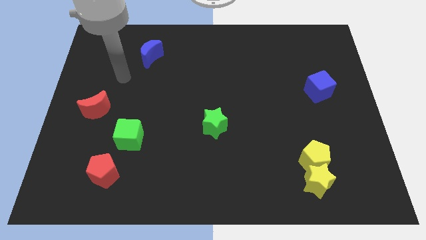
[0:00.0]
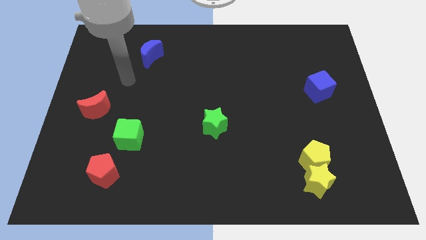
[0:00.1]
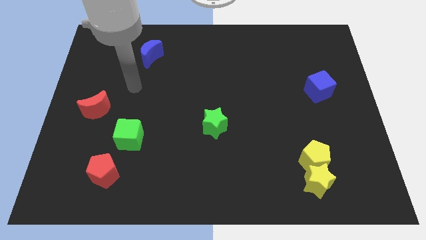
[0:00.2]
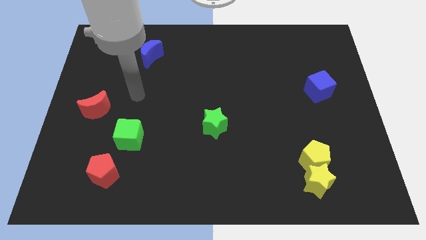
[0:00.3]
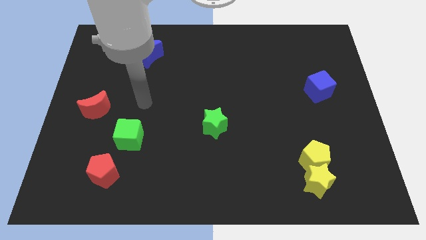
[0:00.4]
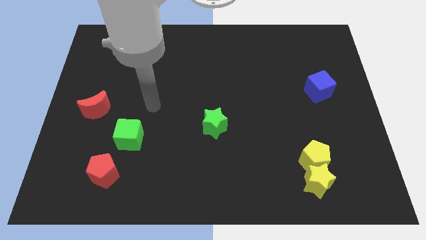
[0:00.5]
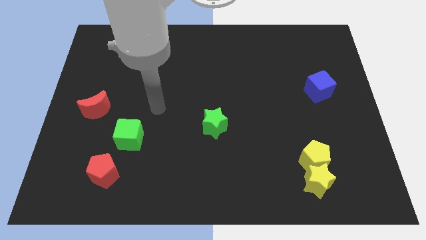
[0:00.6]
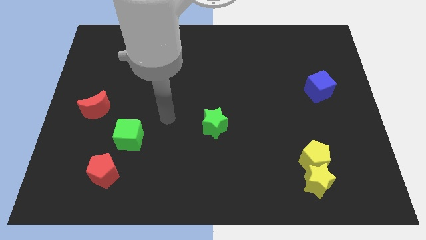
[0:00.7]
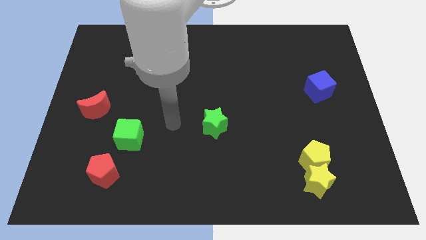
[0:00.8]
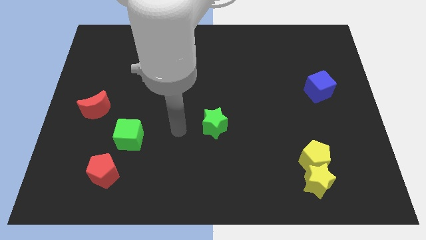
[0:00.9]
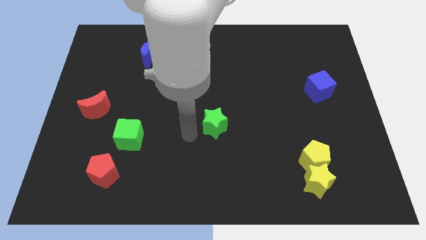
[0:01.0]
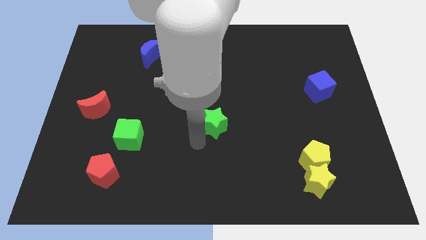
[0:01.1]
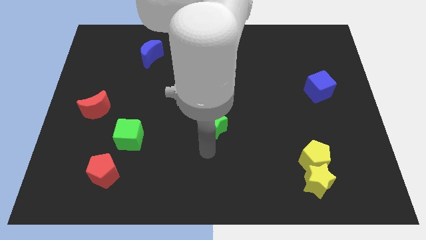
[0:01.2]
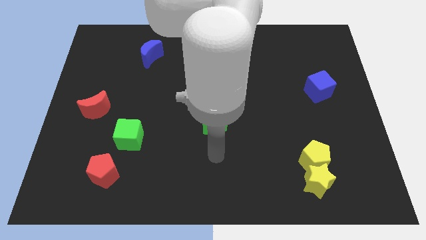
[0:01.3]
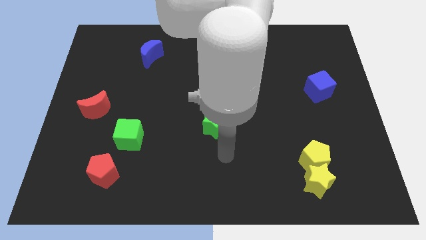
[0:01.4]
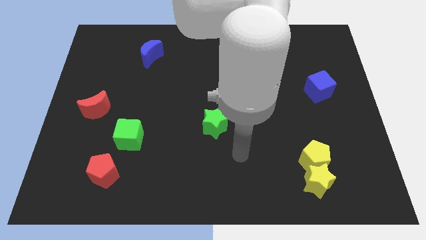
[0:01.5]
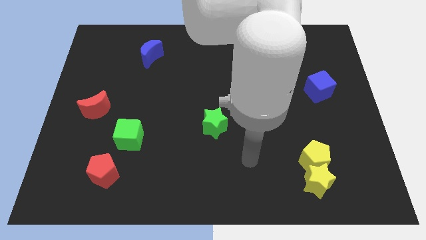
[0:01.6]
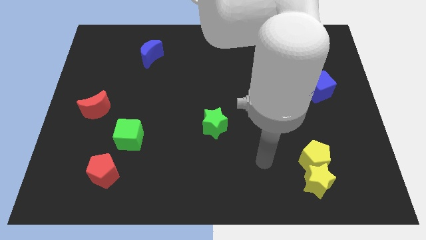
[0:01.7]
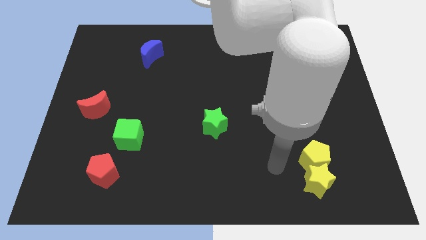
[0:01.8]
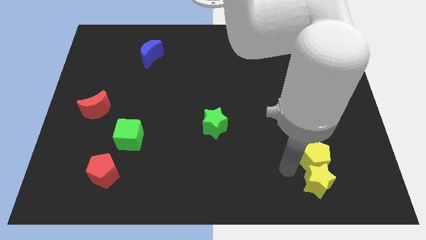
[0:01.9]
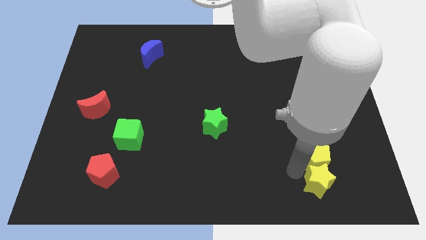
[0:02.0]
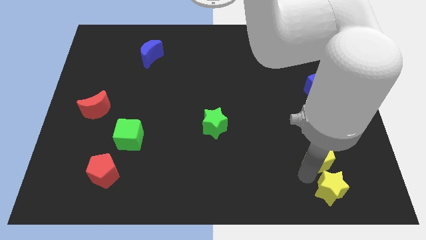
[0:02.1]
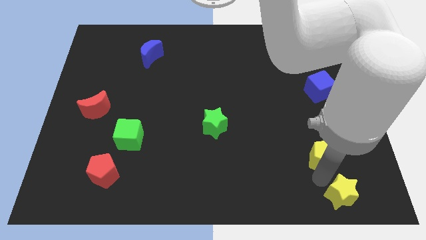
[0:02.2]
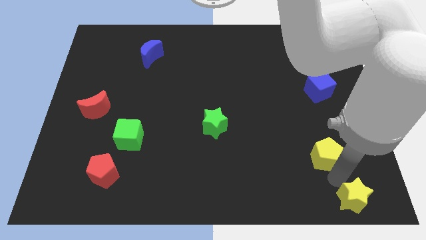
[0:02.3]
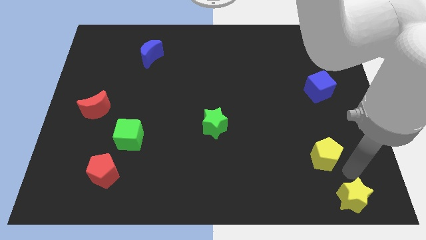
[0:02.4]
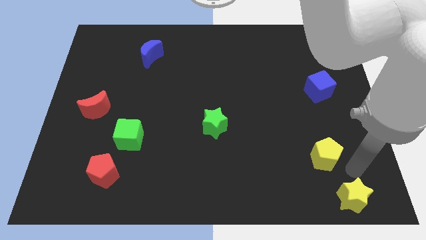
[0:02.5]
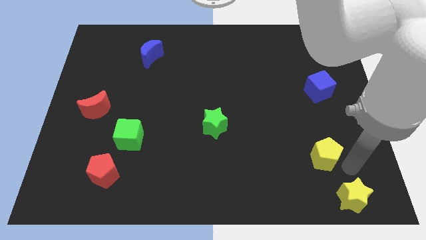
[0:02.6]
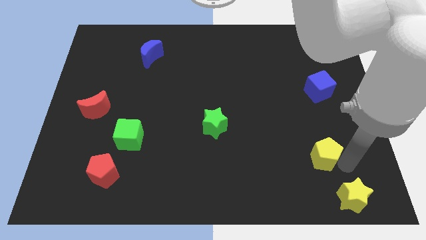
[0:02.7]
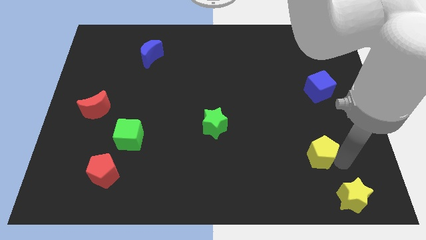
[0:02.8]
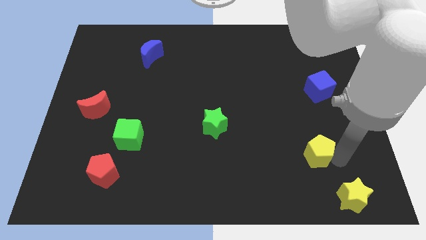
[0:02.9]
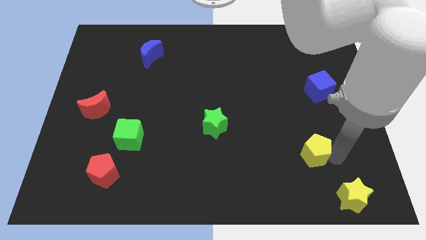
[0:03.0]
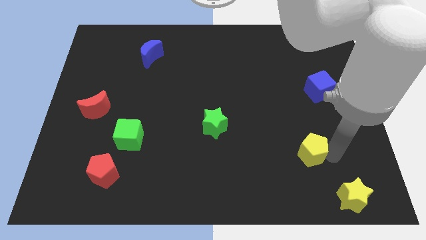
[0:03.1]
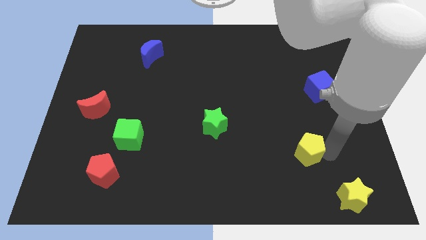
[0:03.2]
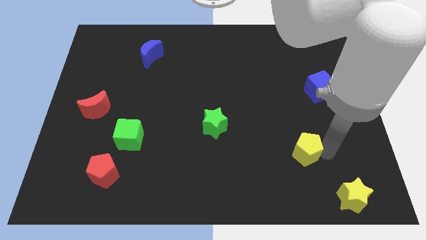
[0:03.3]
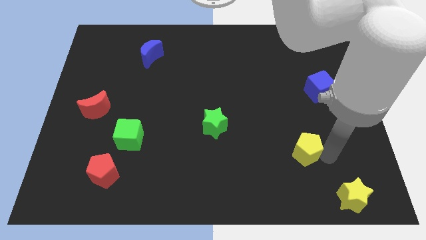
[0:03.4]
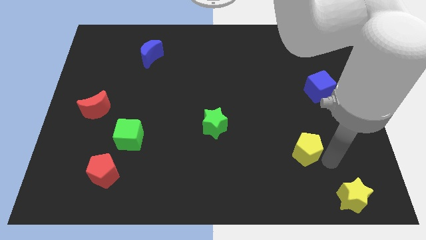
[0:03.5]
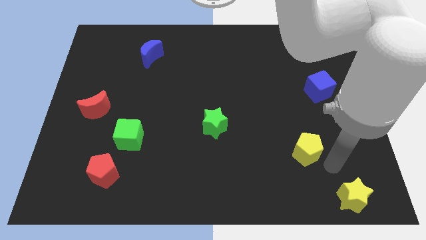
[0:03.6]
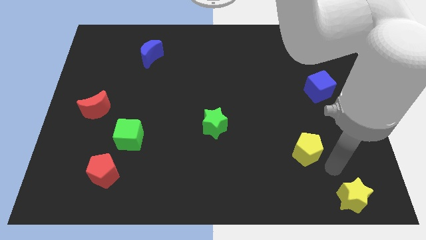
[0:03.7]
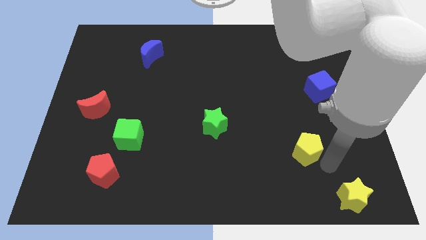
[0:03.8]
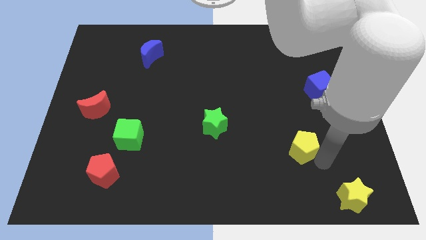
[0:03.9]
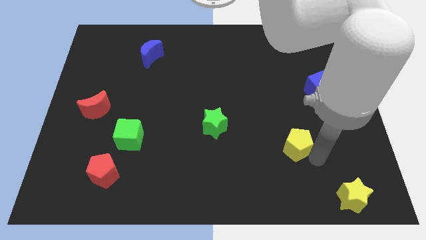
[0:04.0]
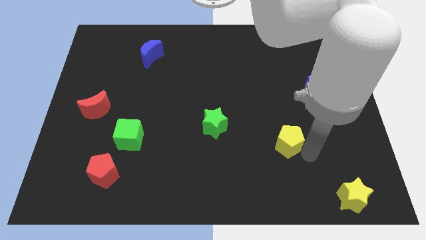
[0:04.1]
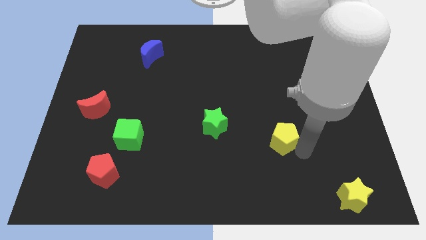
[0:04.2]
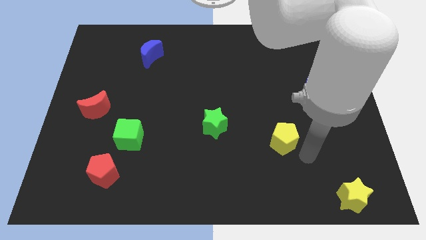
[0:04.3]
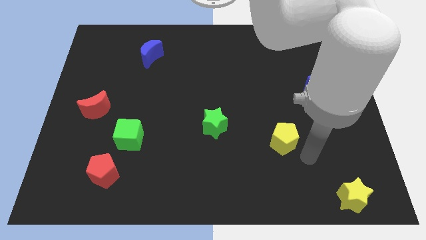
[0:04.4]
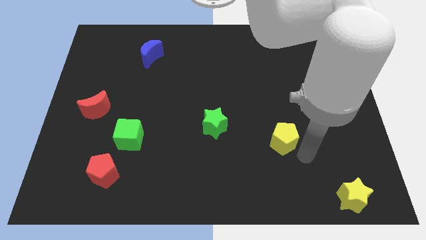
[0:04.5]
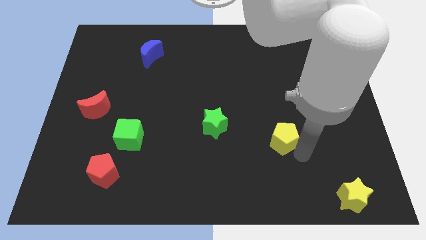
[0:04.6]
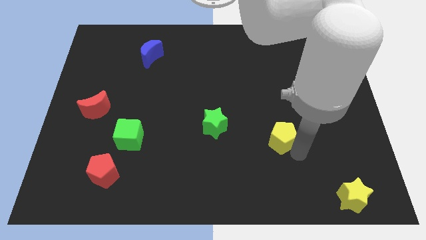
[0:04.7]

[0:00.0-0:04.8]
move the yellow pentagon to the right side of the green star

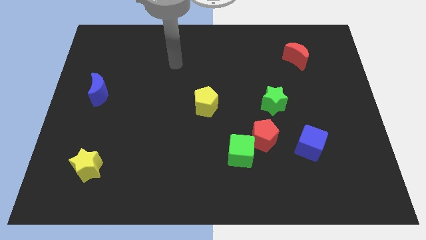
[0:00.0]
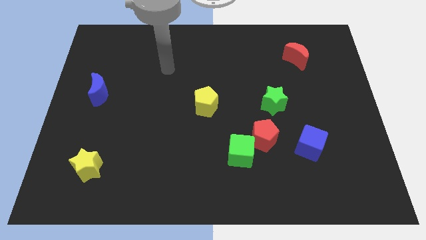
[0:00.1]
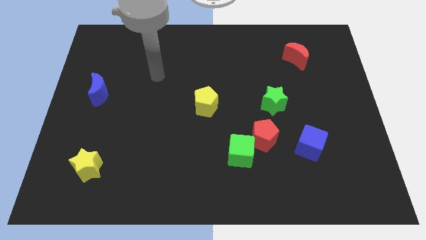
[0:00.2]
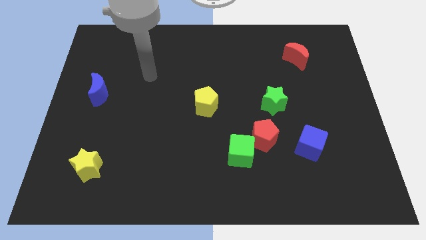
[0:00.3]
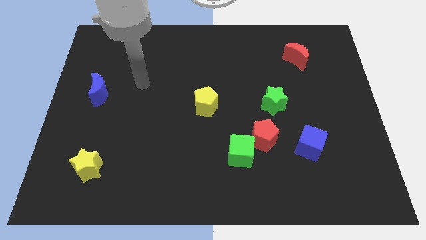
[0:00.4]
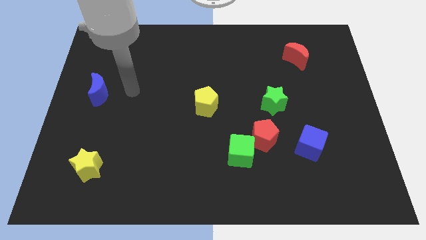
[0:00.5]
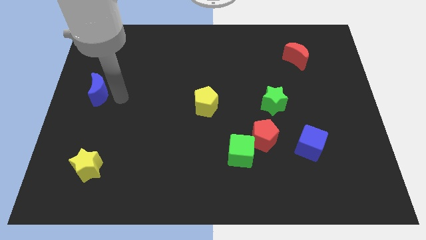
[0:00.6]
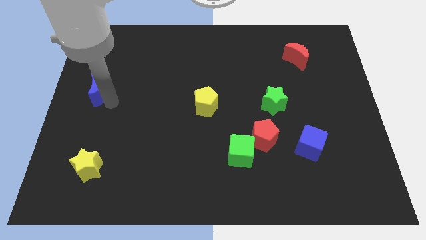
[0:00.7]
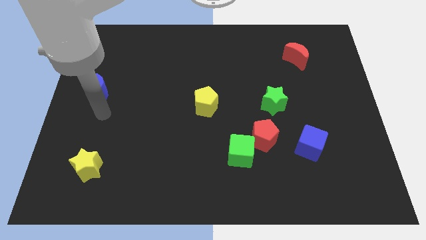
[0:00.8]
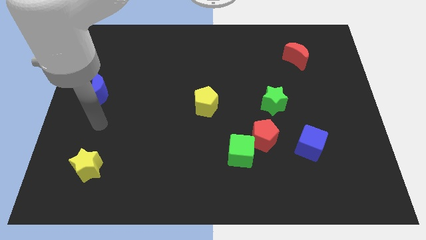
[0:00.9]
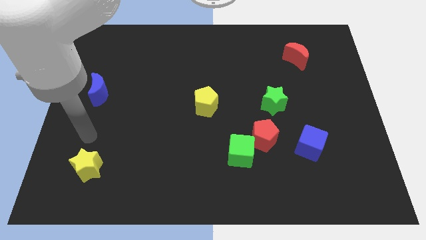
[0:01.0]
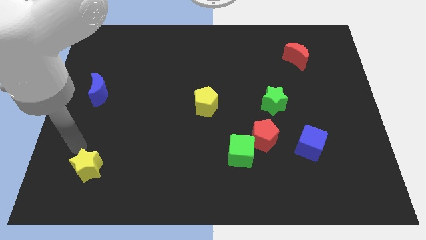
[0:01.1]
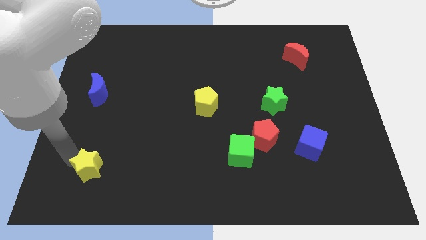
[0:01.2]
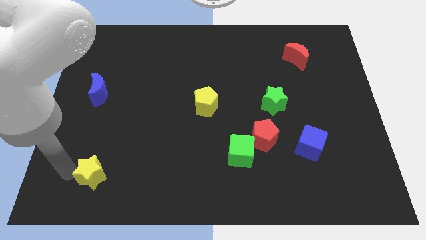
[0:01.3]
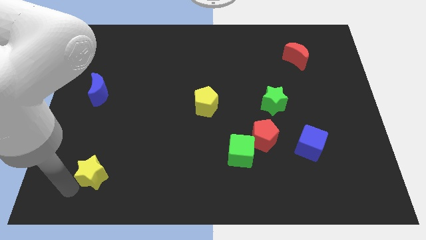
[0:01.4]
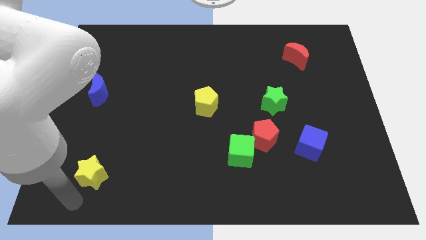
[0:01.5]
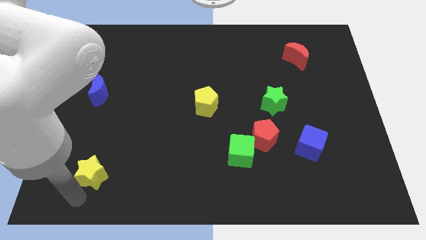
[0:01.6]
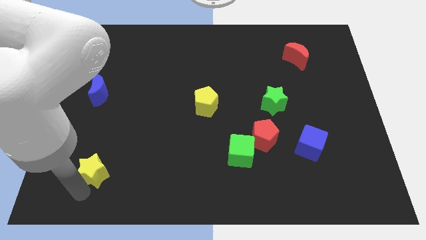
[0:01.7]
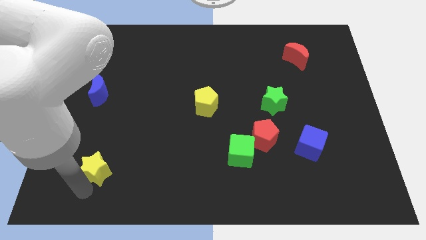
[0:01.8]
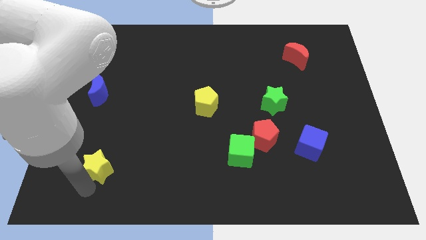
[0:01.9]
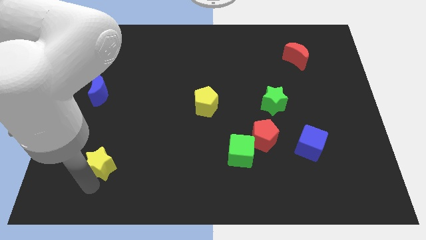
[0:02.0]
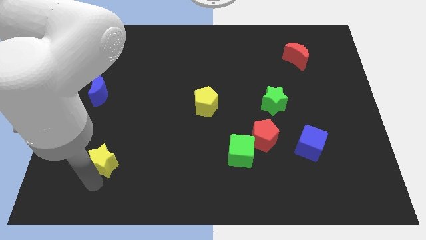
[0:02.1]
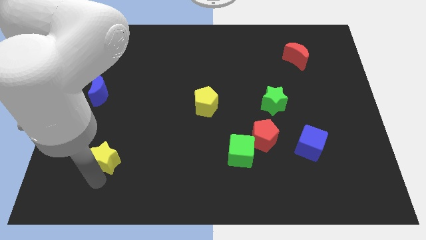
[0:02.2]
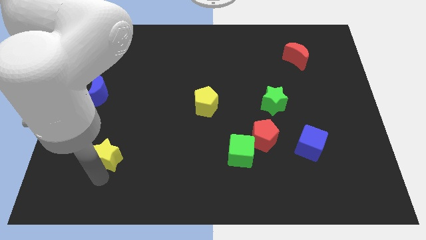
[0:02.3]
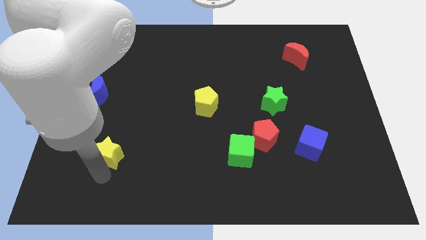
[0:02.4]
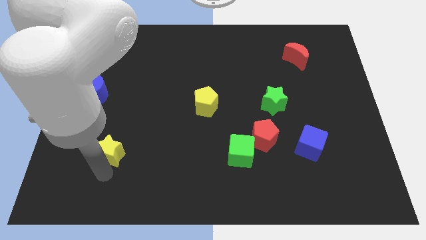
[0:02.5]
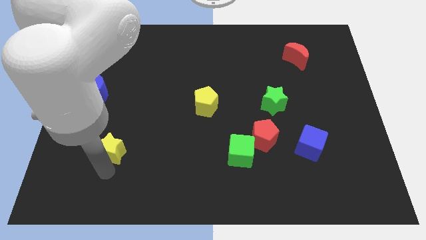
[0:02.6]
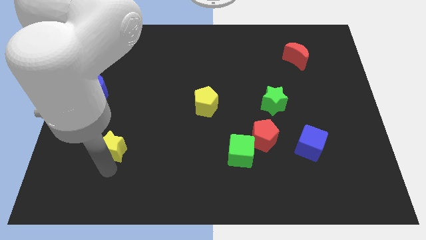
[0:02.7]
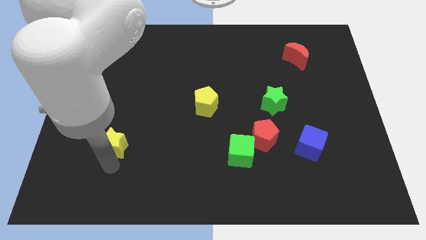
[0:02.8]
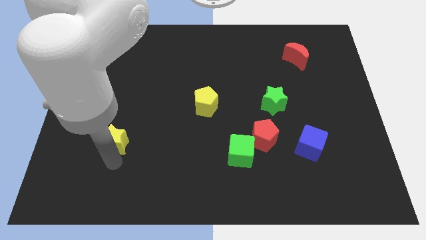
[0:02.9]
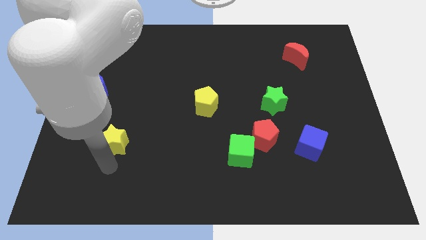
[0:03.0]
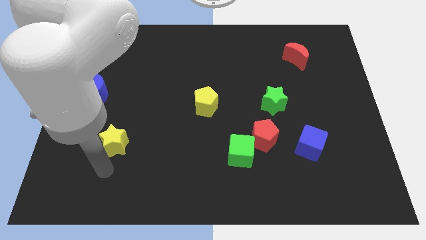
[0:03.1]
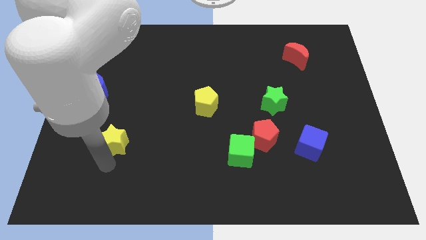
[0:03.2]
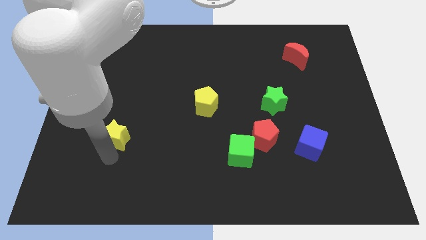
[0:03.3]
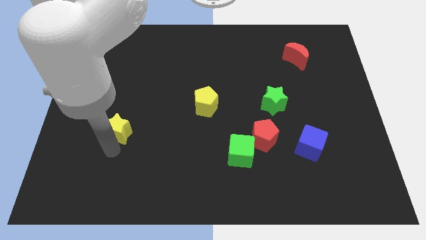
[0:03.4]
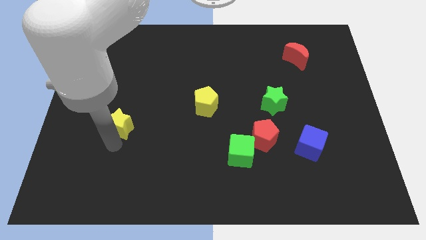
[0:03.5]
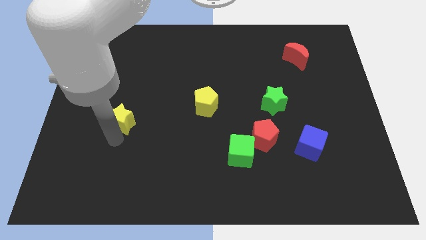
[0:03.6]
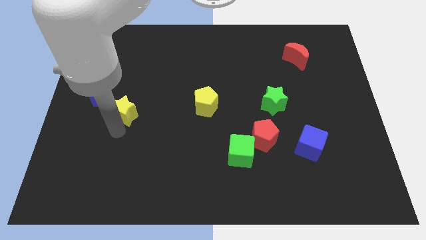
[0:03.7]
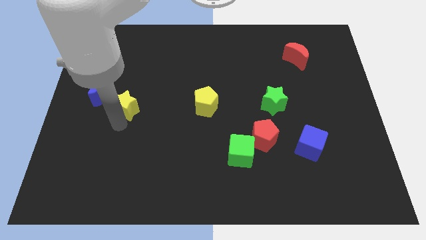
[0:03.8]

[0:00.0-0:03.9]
put the yellow star just right of the blue moon
